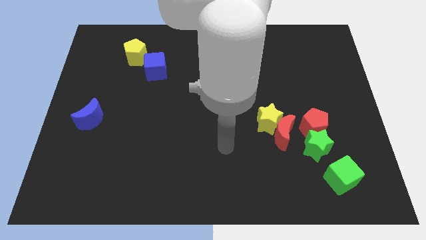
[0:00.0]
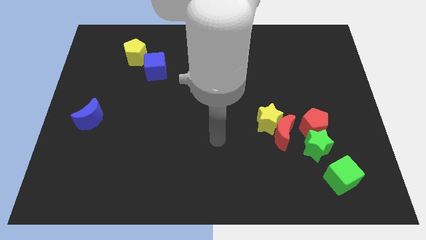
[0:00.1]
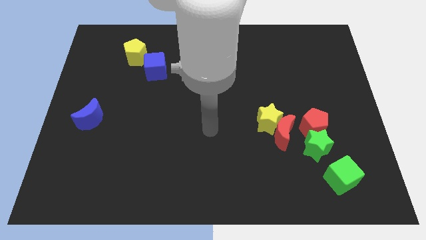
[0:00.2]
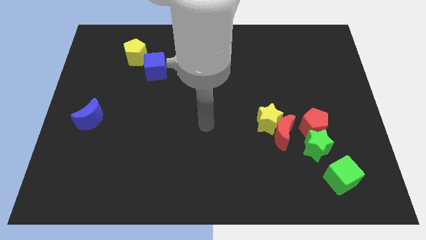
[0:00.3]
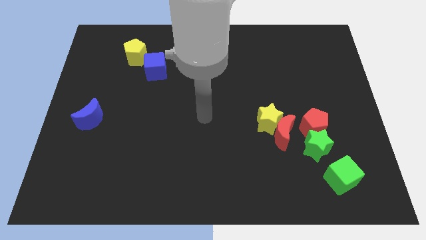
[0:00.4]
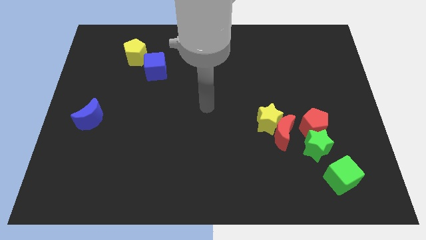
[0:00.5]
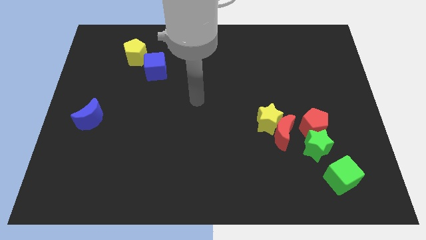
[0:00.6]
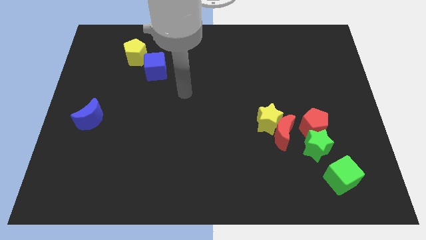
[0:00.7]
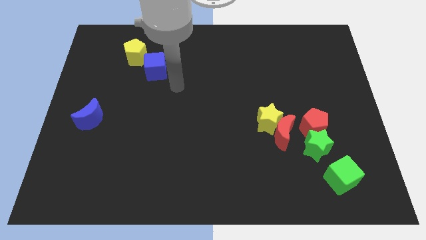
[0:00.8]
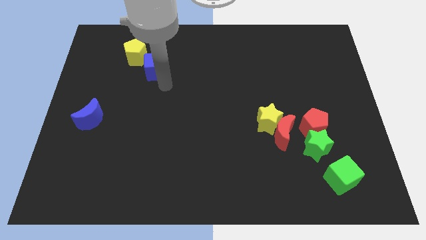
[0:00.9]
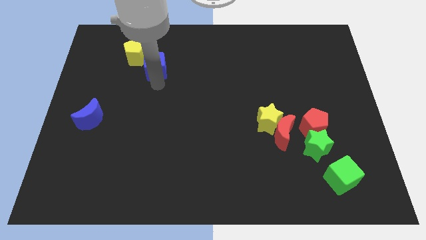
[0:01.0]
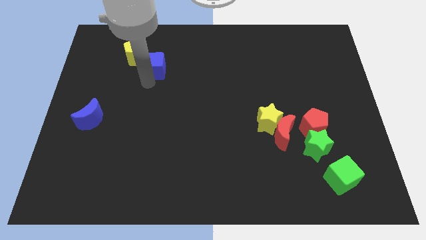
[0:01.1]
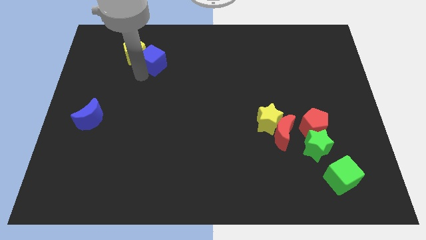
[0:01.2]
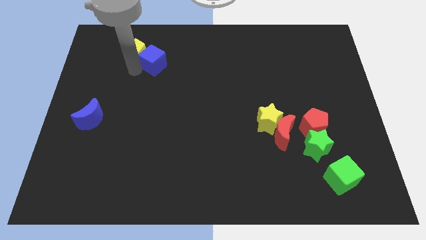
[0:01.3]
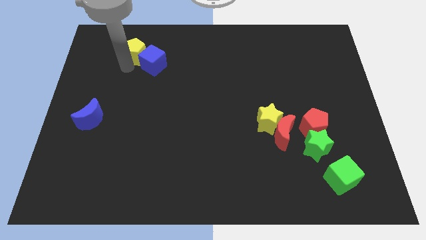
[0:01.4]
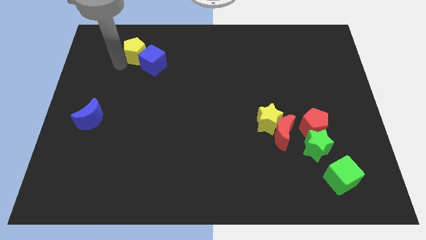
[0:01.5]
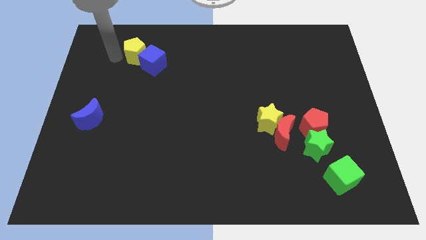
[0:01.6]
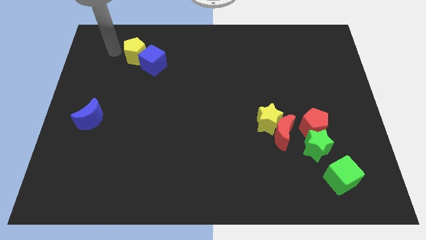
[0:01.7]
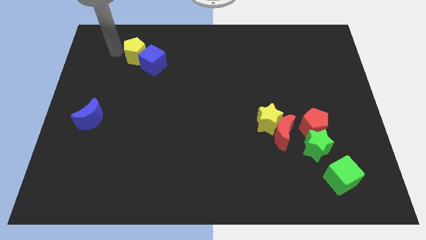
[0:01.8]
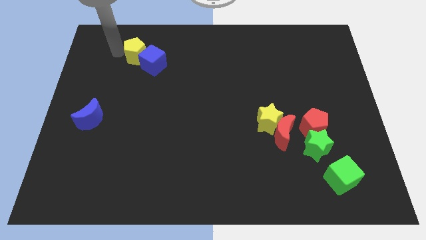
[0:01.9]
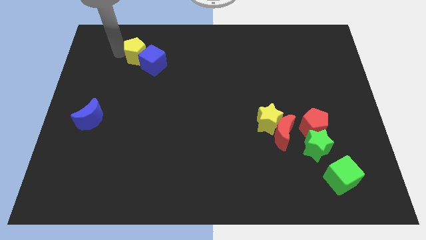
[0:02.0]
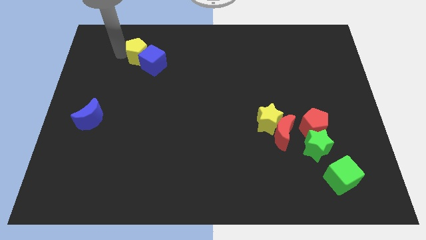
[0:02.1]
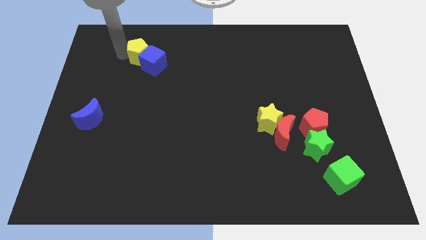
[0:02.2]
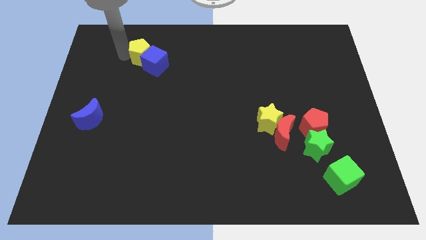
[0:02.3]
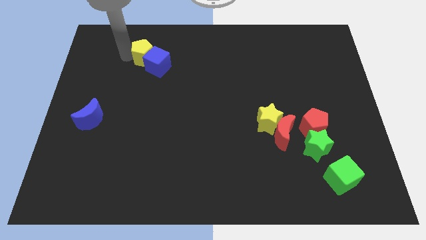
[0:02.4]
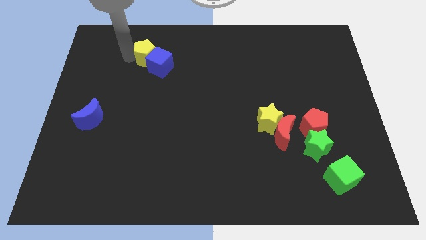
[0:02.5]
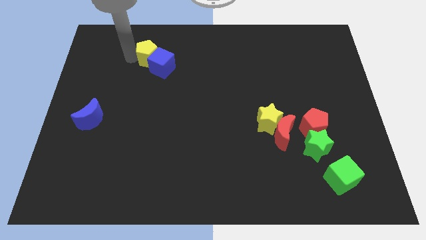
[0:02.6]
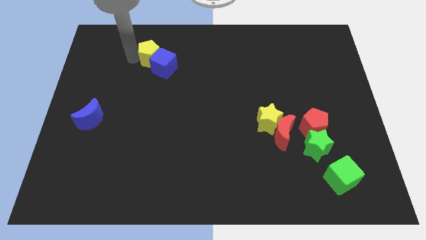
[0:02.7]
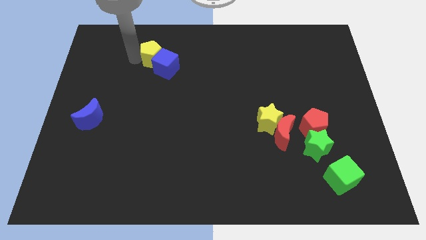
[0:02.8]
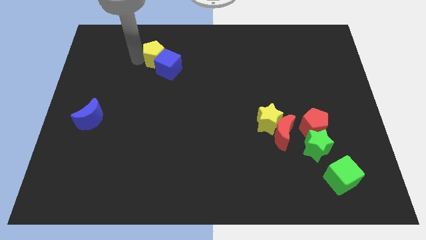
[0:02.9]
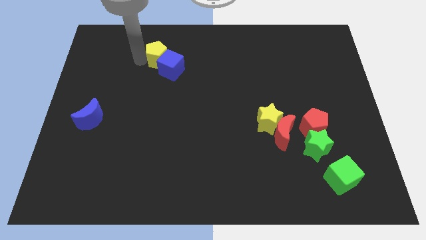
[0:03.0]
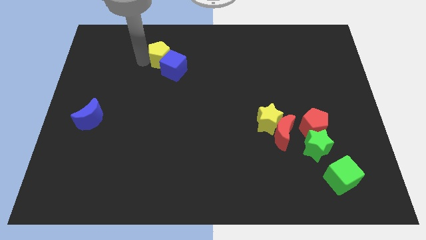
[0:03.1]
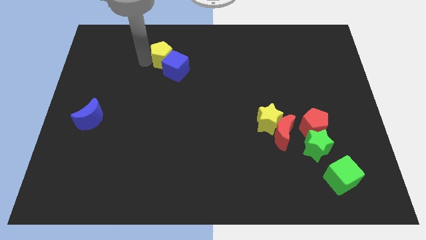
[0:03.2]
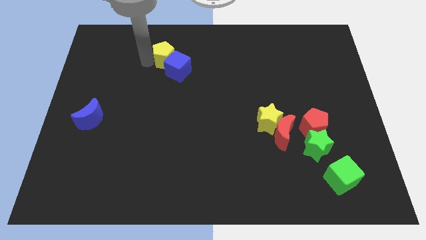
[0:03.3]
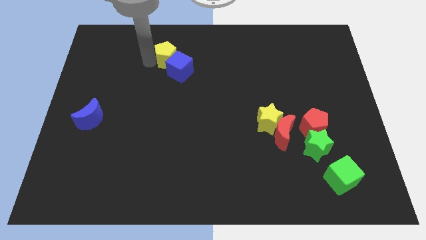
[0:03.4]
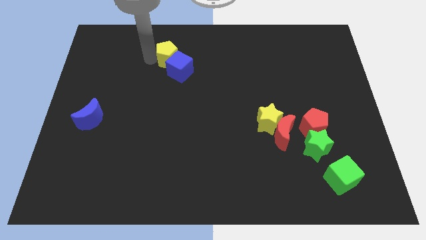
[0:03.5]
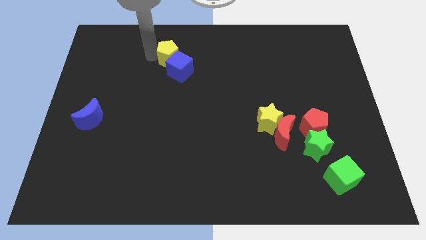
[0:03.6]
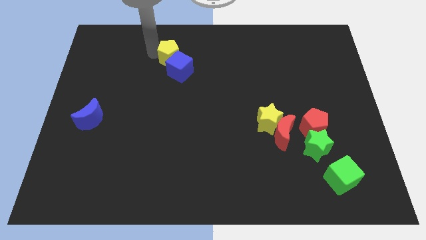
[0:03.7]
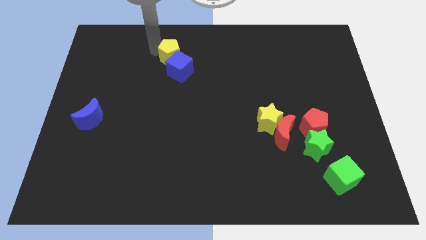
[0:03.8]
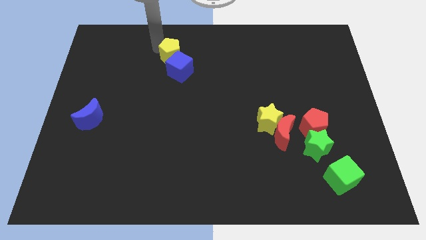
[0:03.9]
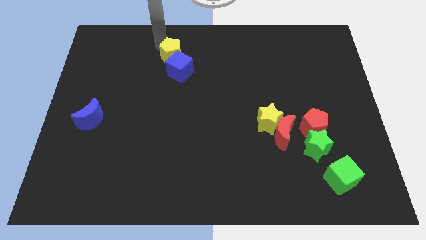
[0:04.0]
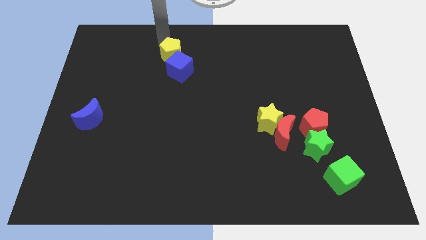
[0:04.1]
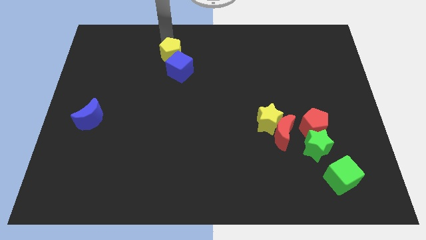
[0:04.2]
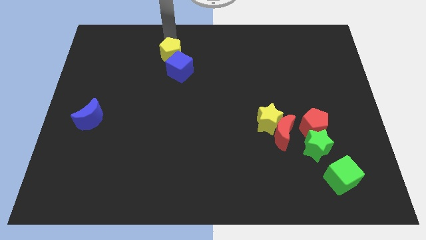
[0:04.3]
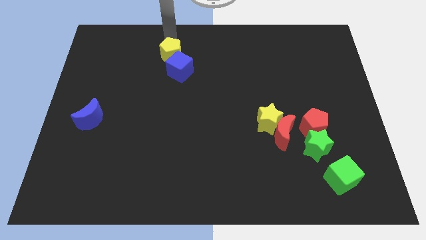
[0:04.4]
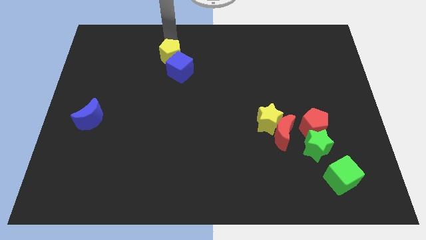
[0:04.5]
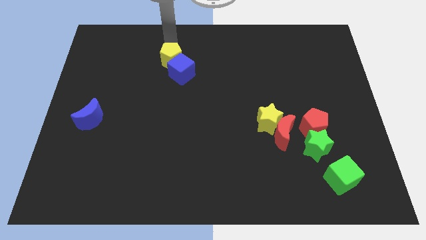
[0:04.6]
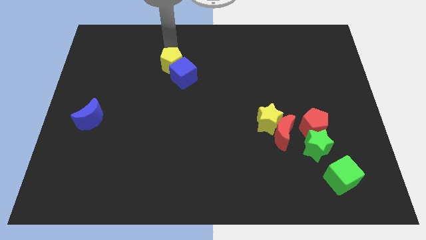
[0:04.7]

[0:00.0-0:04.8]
push the yellow pentagon a bit down and then to the right

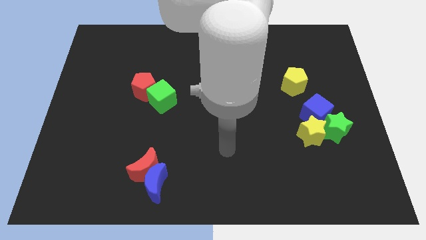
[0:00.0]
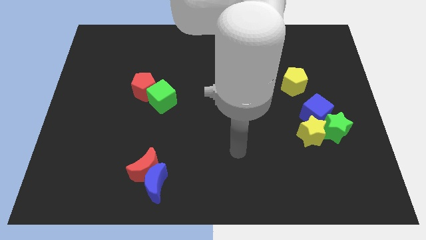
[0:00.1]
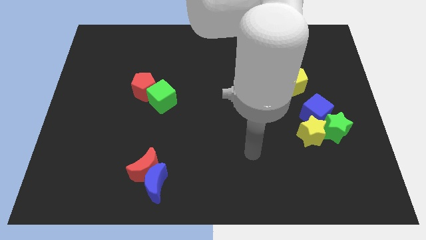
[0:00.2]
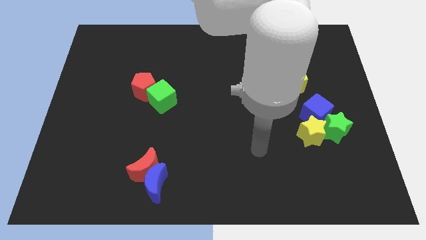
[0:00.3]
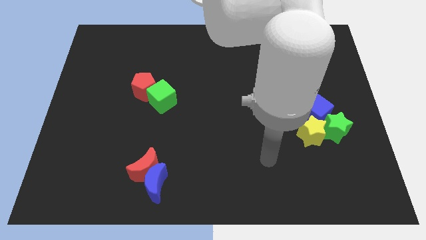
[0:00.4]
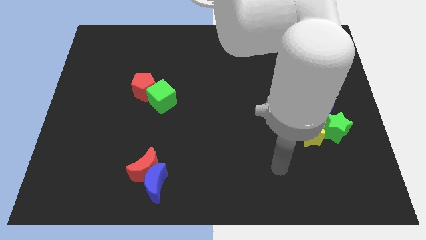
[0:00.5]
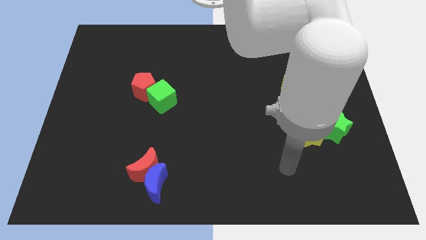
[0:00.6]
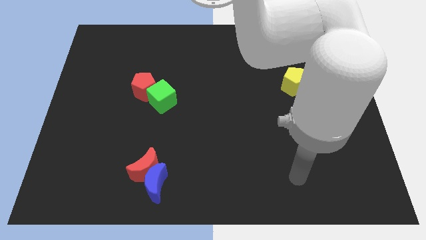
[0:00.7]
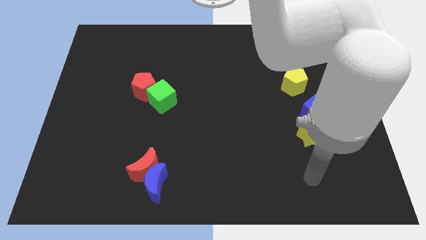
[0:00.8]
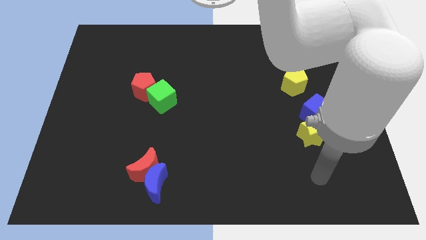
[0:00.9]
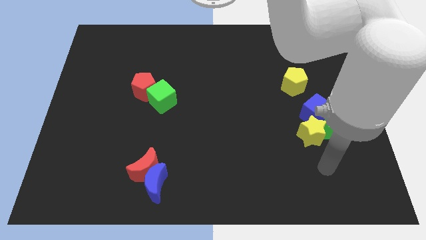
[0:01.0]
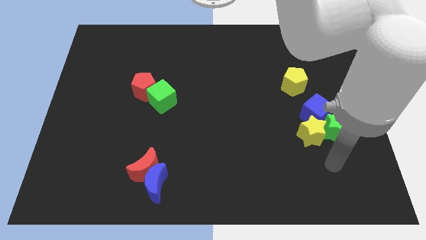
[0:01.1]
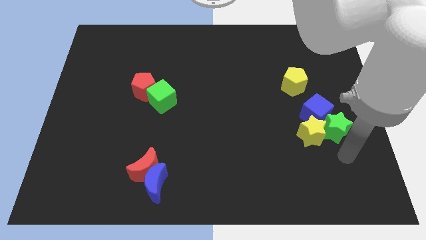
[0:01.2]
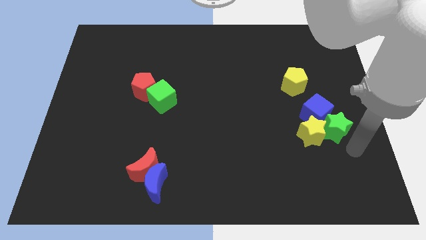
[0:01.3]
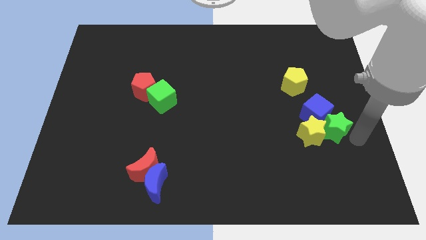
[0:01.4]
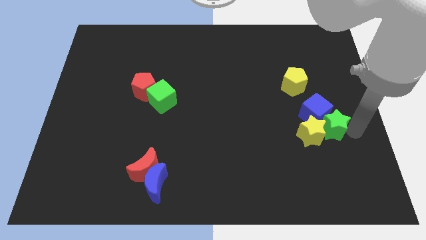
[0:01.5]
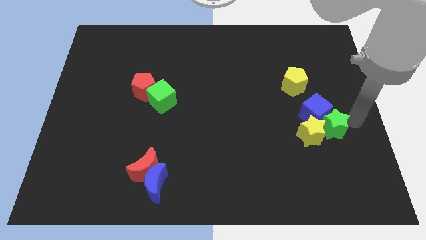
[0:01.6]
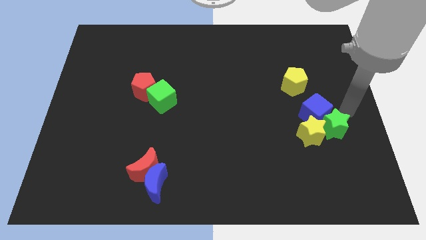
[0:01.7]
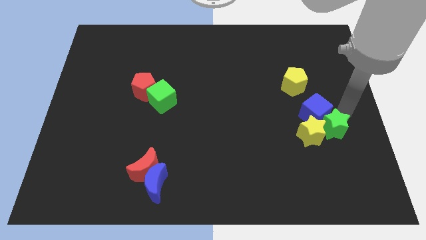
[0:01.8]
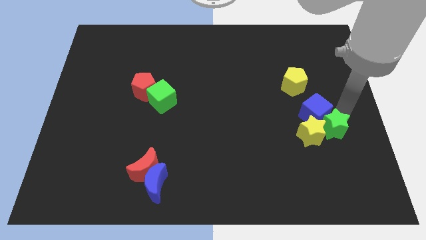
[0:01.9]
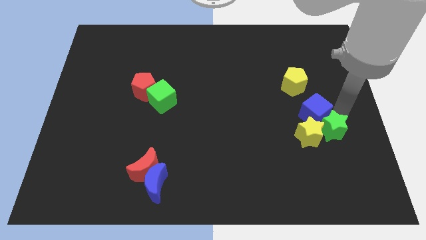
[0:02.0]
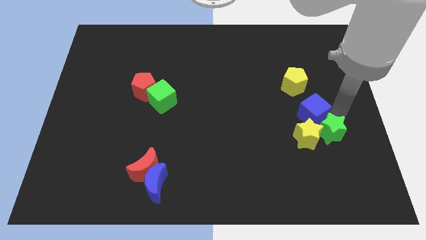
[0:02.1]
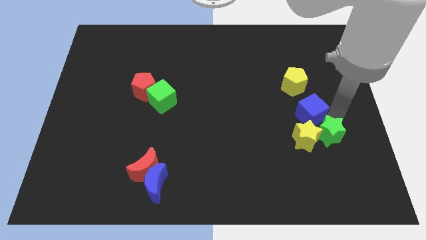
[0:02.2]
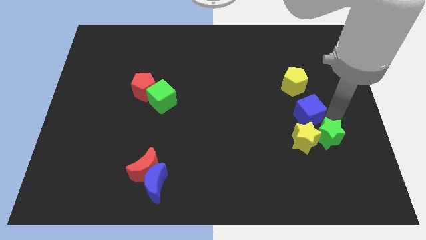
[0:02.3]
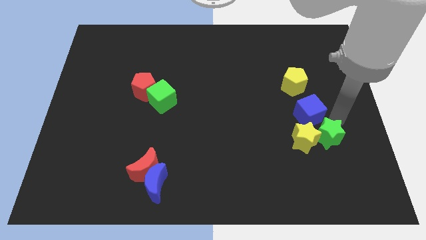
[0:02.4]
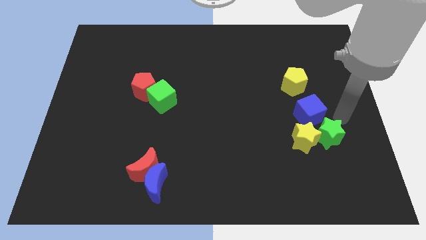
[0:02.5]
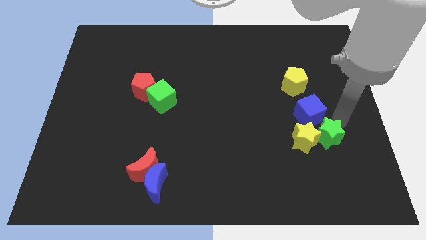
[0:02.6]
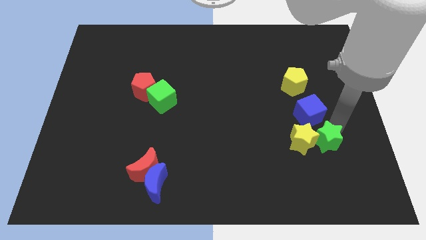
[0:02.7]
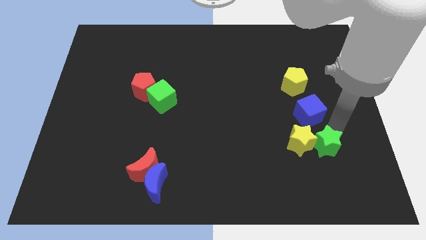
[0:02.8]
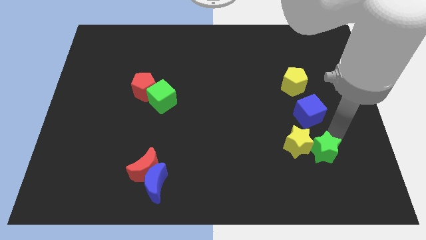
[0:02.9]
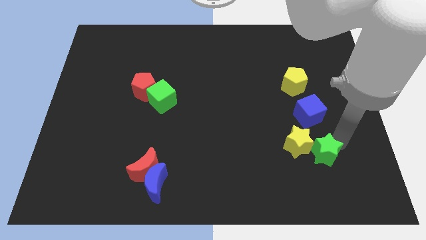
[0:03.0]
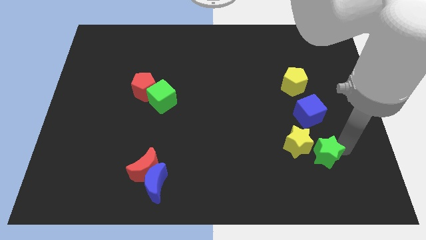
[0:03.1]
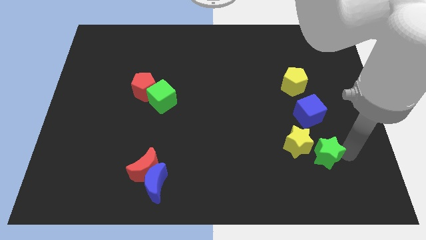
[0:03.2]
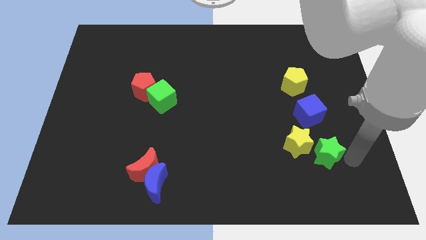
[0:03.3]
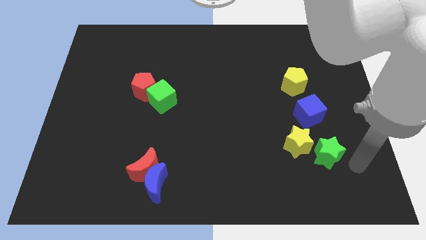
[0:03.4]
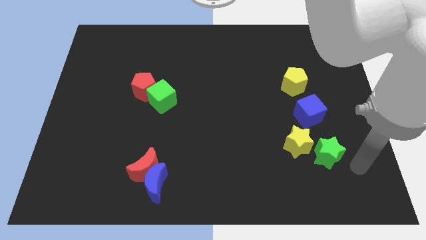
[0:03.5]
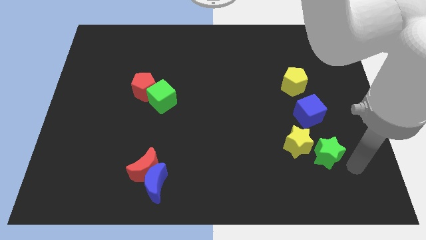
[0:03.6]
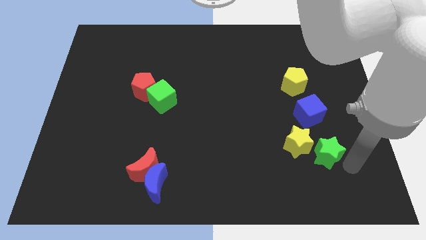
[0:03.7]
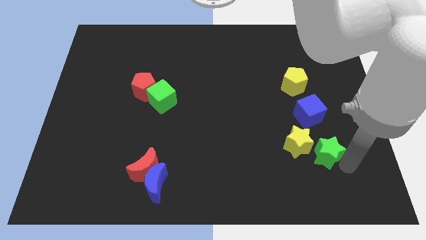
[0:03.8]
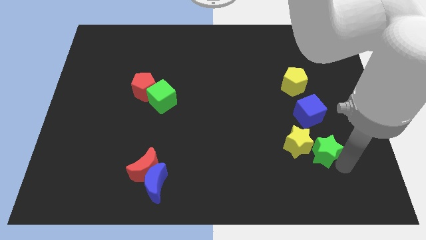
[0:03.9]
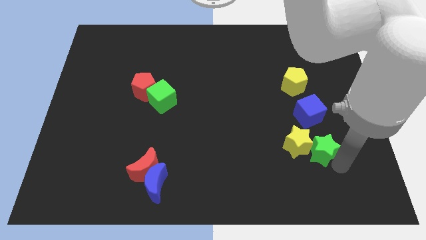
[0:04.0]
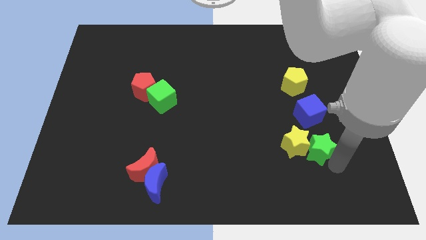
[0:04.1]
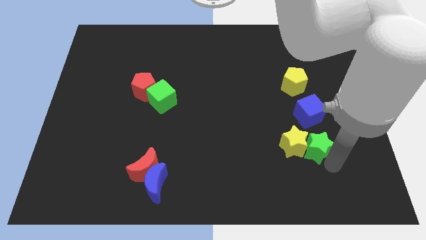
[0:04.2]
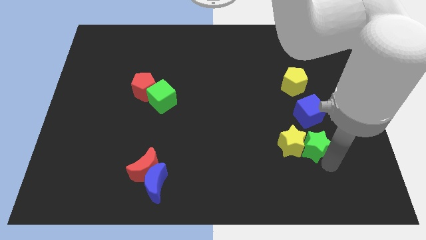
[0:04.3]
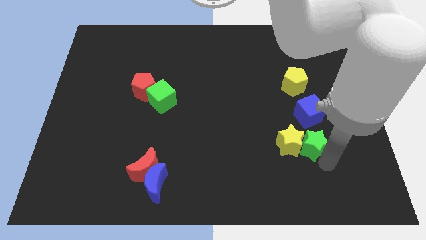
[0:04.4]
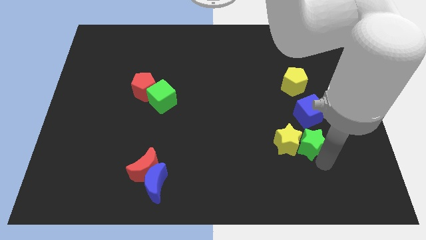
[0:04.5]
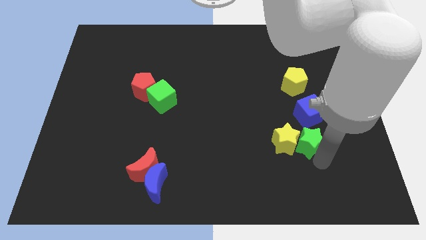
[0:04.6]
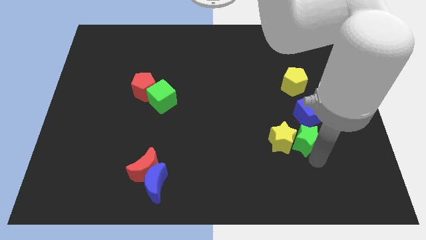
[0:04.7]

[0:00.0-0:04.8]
slightly move the green star left
